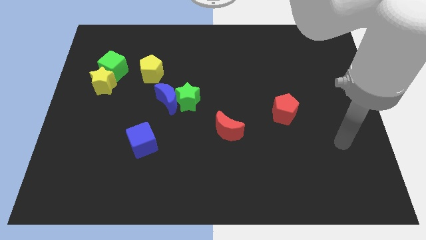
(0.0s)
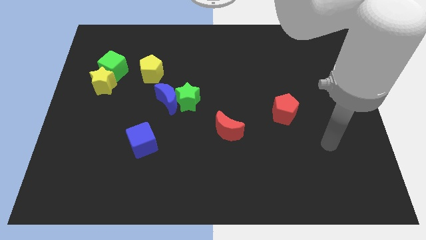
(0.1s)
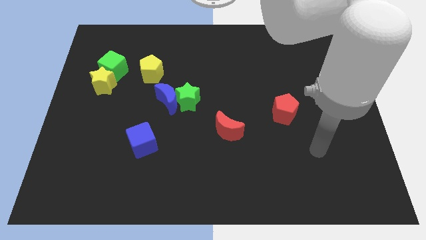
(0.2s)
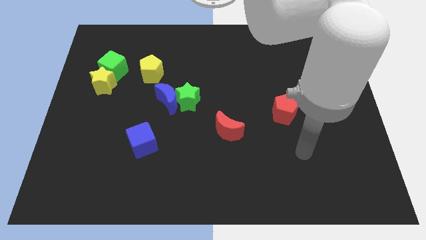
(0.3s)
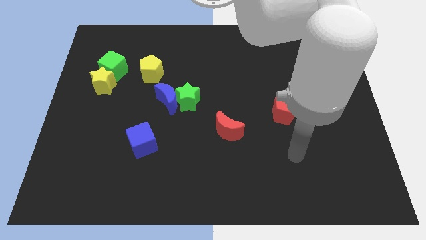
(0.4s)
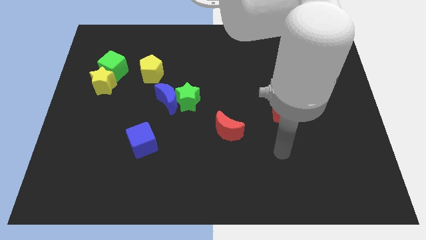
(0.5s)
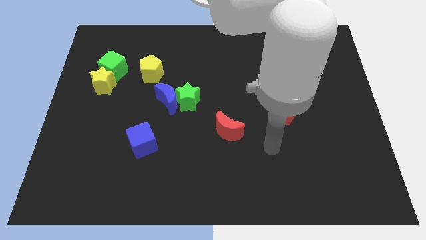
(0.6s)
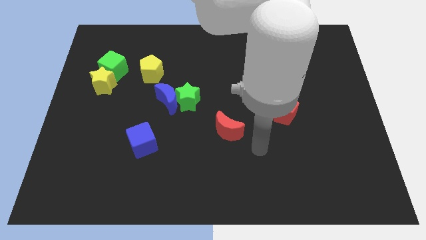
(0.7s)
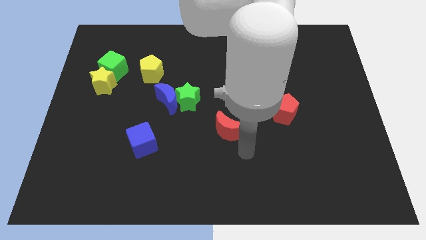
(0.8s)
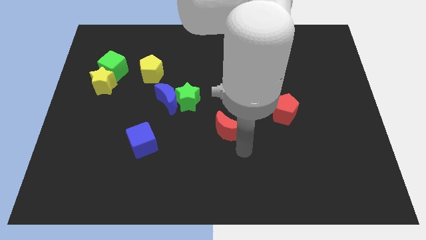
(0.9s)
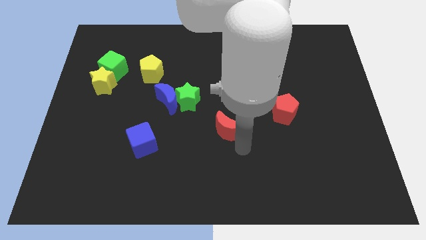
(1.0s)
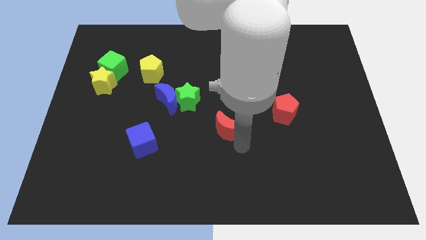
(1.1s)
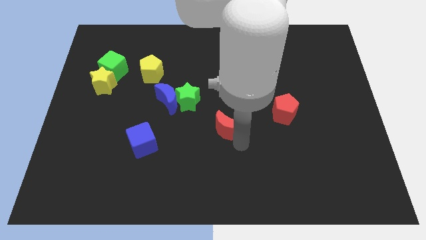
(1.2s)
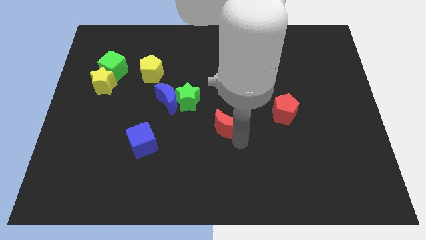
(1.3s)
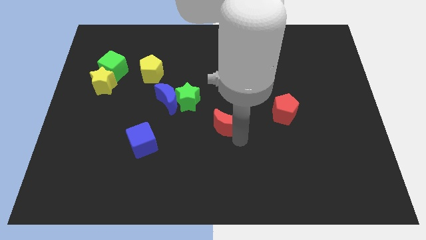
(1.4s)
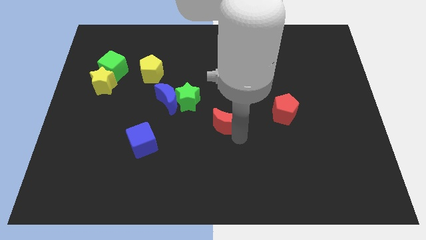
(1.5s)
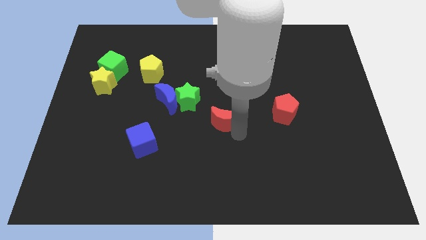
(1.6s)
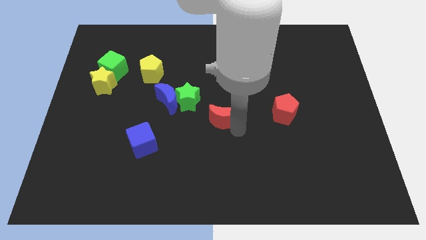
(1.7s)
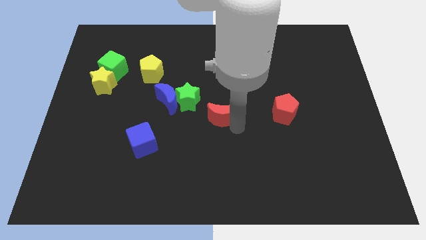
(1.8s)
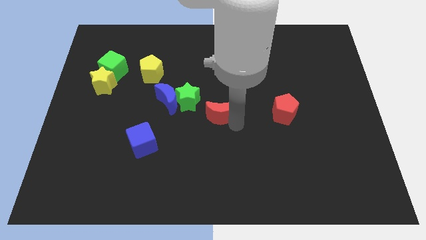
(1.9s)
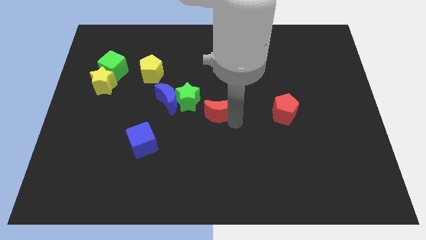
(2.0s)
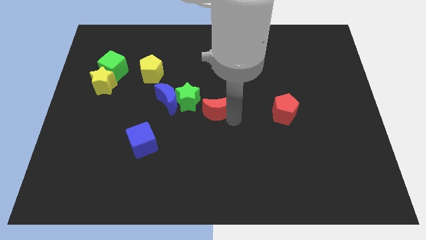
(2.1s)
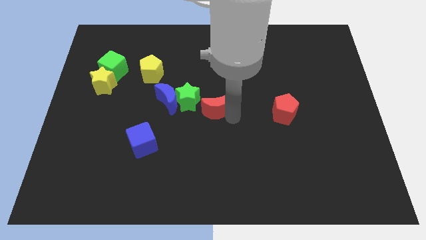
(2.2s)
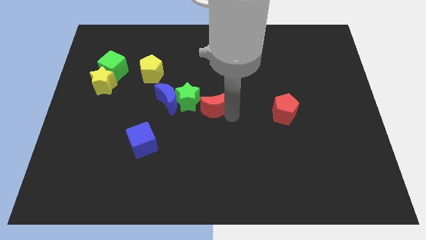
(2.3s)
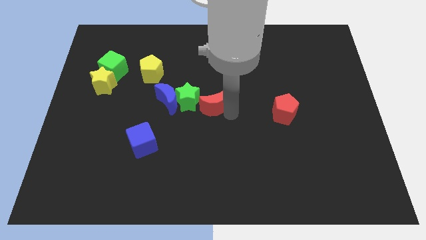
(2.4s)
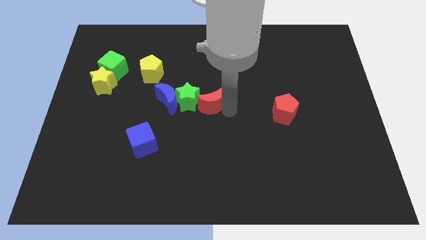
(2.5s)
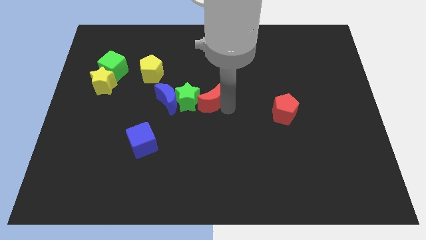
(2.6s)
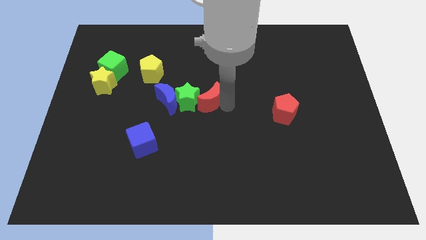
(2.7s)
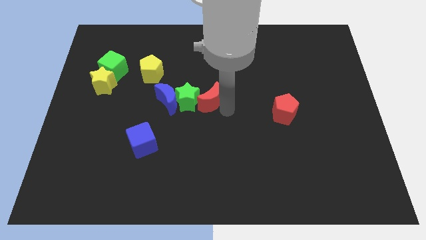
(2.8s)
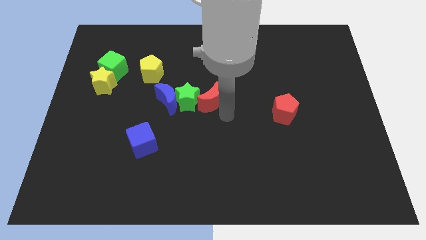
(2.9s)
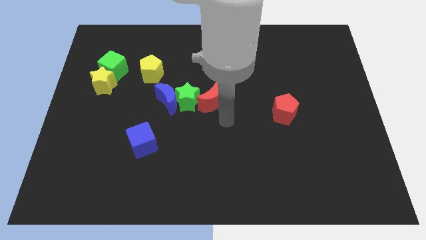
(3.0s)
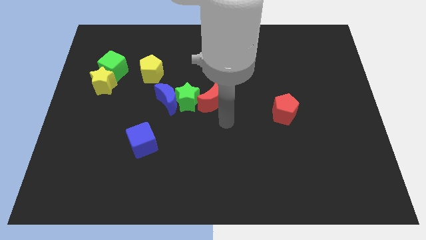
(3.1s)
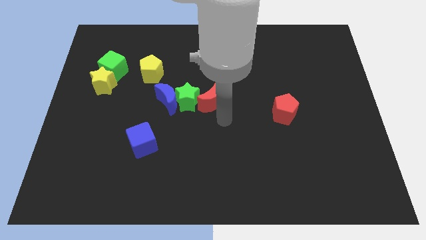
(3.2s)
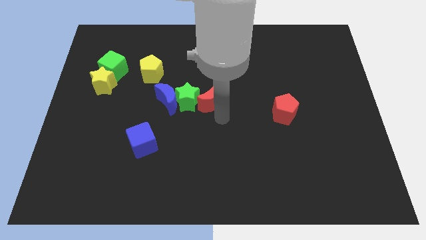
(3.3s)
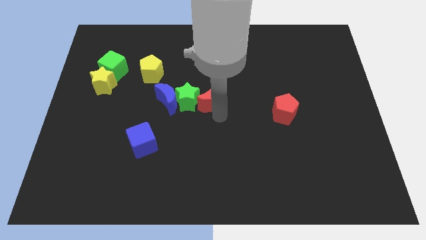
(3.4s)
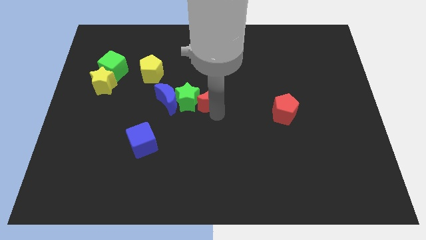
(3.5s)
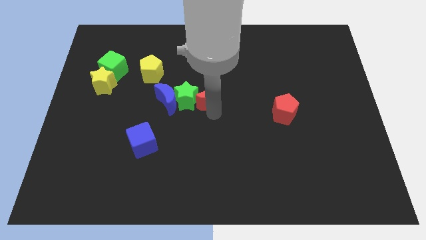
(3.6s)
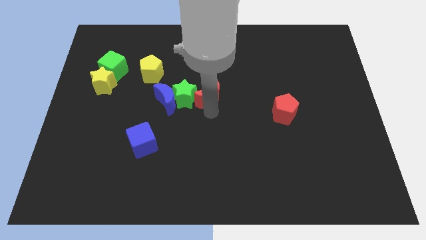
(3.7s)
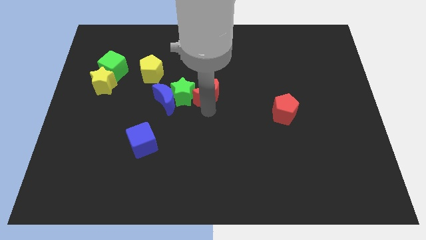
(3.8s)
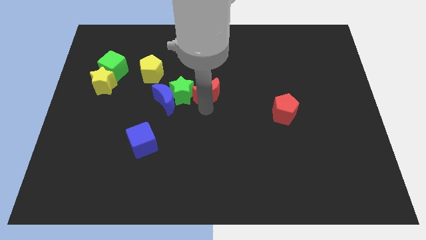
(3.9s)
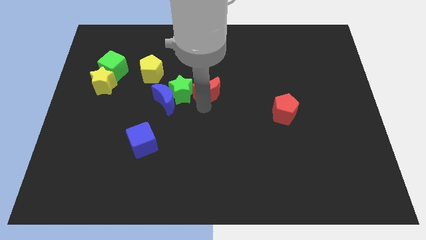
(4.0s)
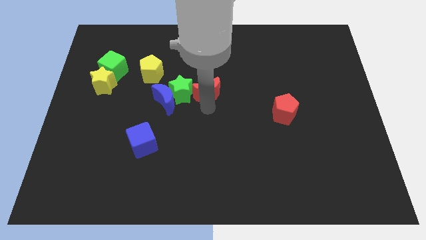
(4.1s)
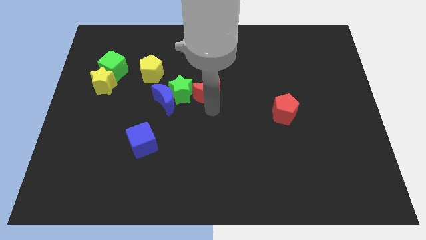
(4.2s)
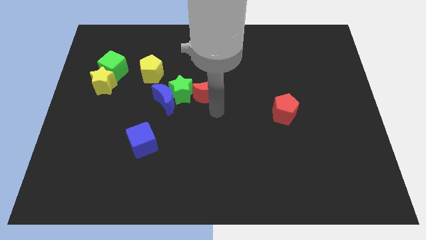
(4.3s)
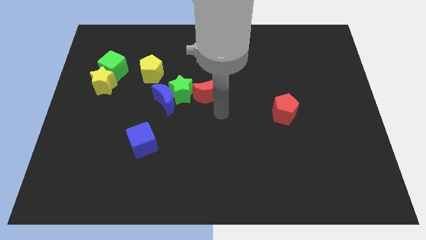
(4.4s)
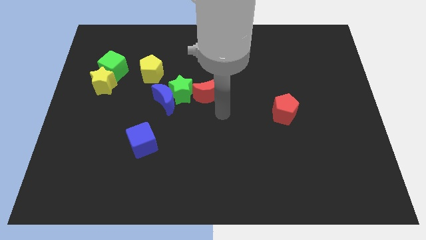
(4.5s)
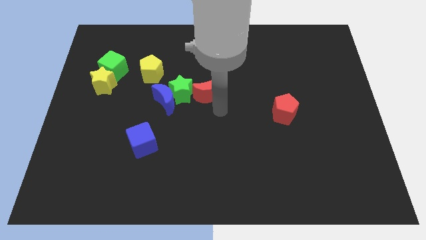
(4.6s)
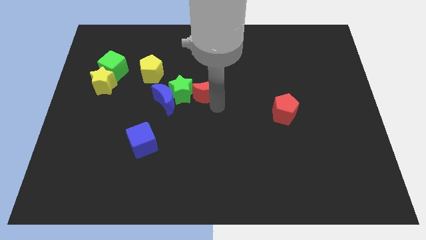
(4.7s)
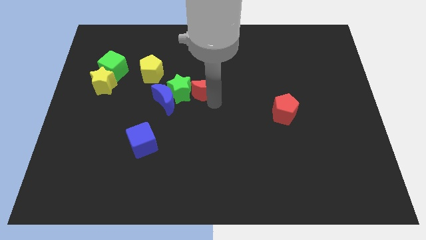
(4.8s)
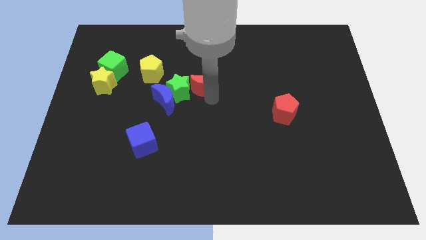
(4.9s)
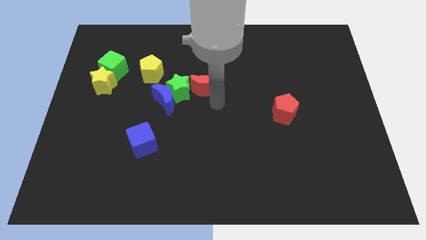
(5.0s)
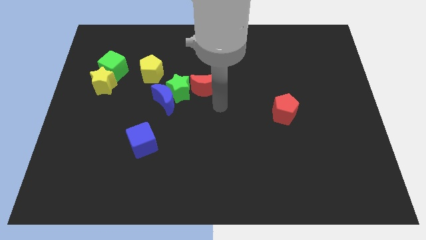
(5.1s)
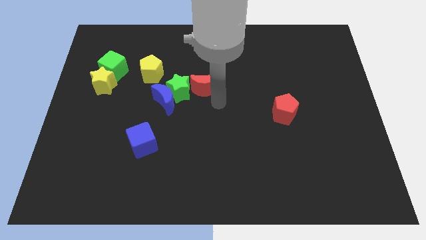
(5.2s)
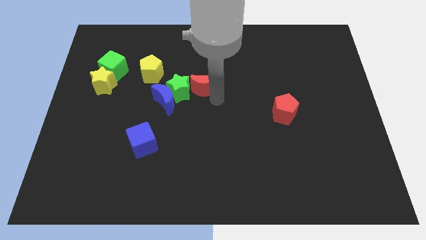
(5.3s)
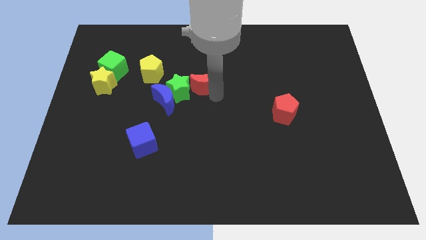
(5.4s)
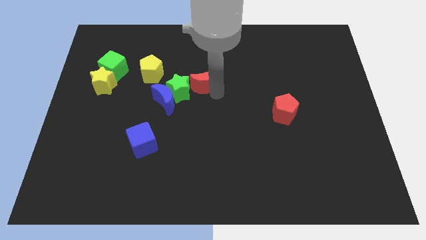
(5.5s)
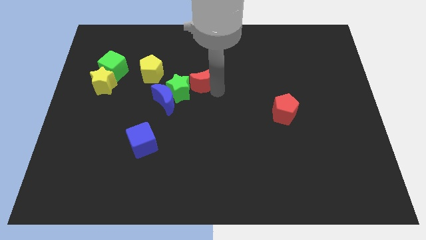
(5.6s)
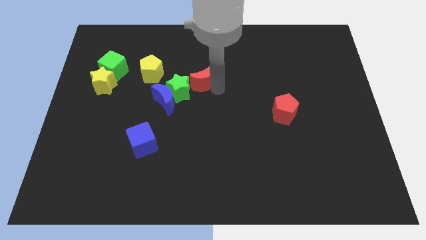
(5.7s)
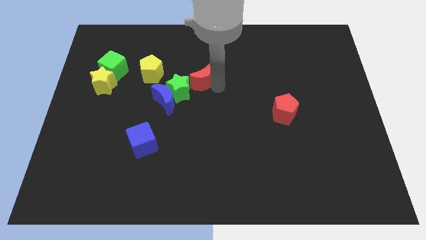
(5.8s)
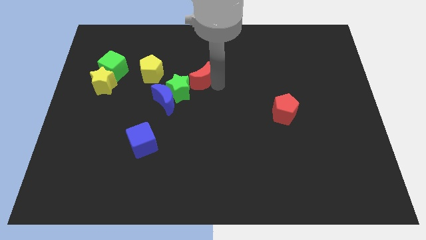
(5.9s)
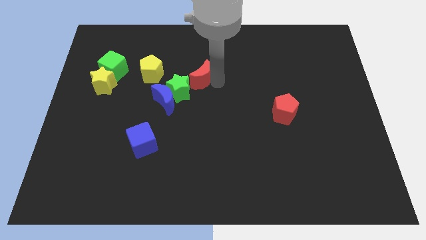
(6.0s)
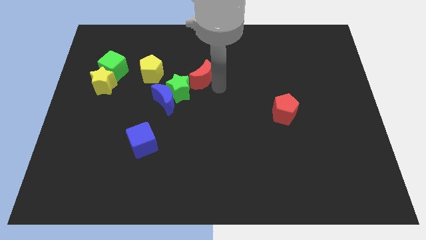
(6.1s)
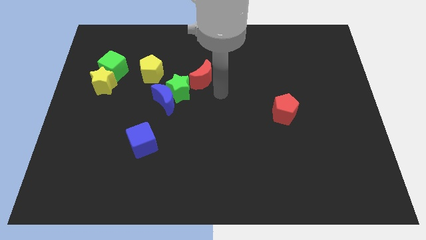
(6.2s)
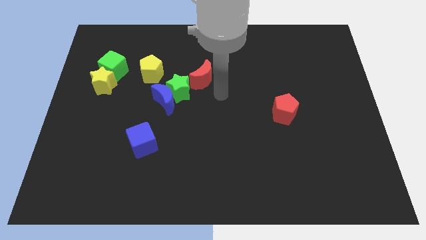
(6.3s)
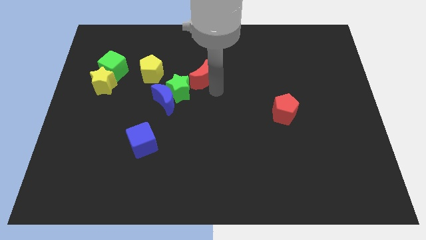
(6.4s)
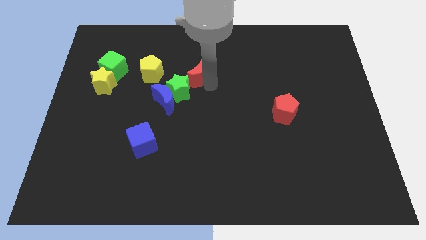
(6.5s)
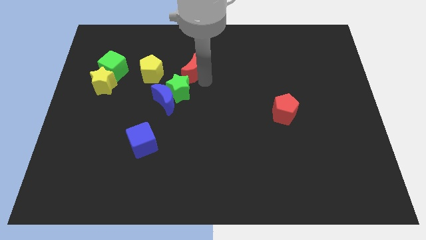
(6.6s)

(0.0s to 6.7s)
slide the red moon to the top of the green star
